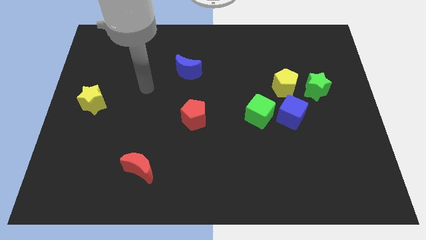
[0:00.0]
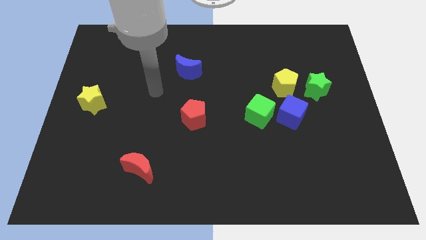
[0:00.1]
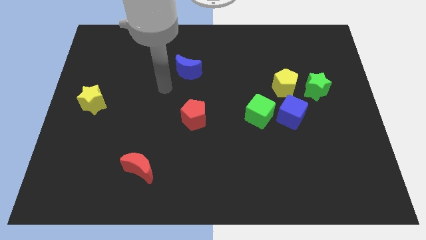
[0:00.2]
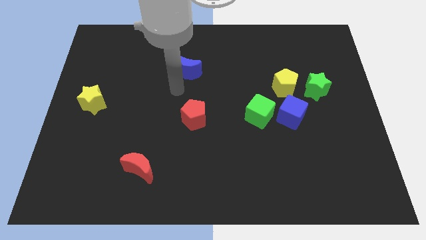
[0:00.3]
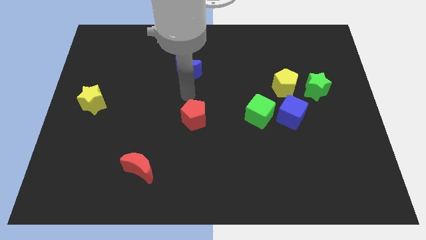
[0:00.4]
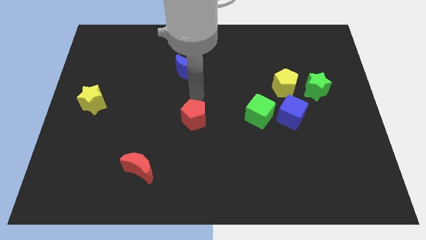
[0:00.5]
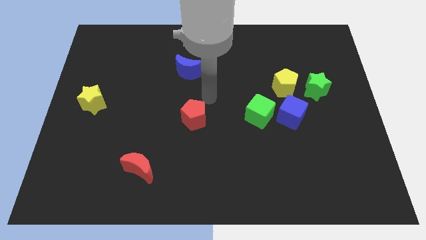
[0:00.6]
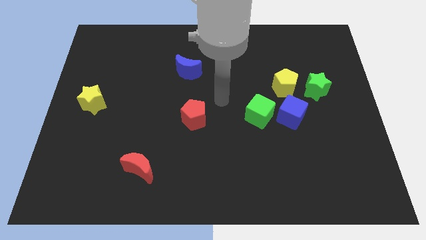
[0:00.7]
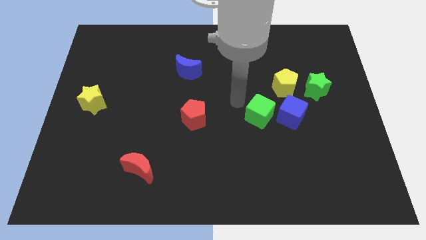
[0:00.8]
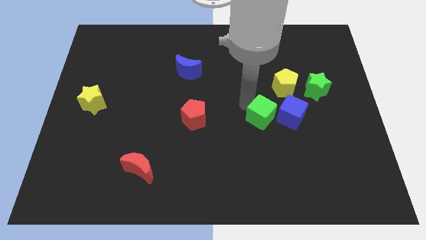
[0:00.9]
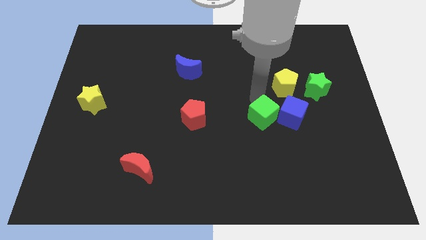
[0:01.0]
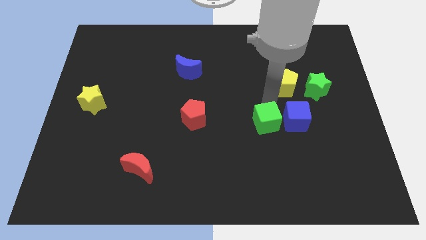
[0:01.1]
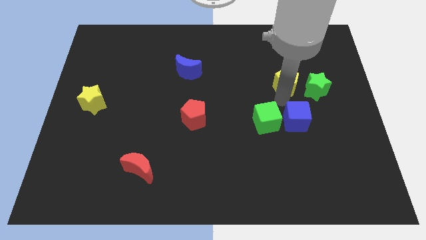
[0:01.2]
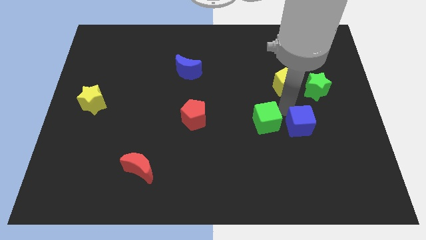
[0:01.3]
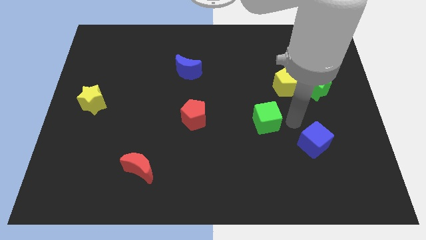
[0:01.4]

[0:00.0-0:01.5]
pull the green cube apart from the blue cube

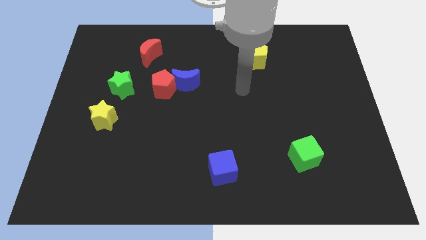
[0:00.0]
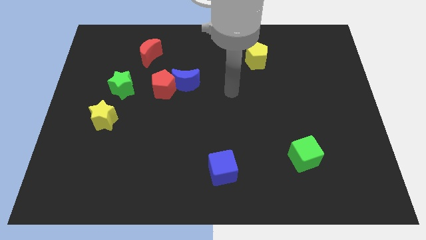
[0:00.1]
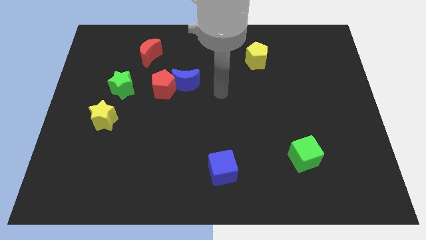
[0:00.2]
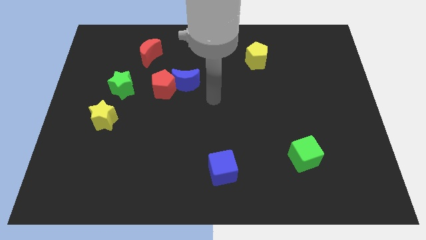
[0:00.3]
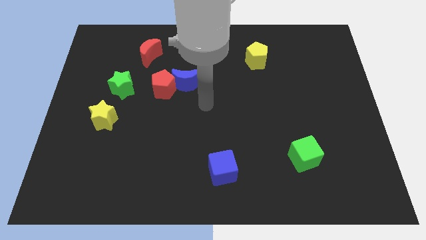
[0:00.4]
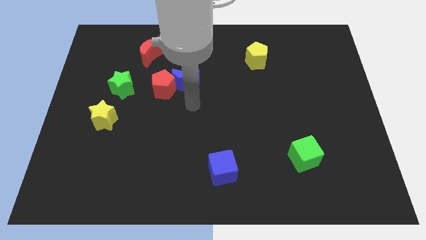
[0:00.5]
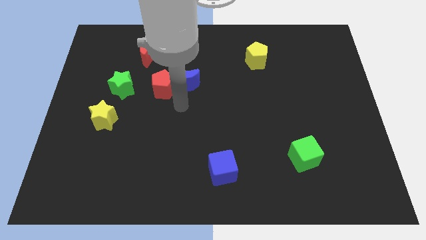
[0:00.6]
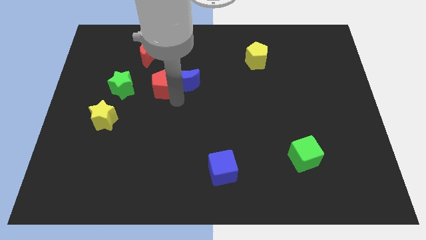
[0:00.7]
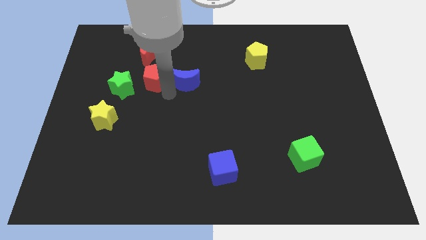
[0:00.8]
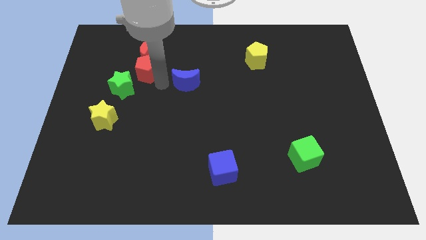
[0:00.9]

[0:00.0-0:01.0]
separate the blue moon from the red pentagon

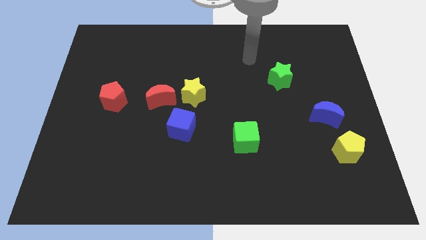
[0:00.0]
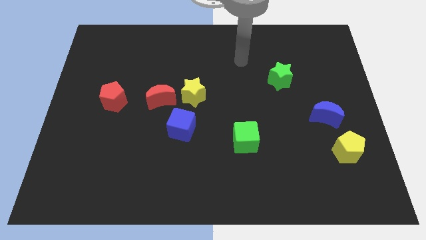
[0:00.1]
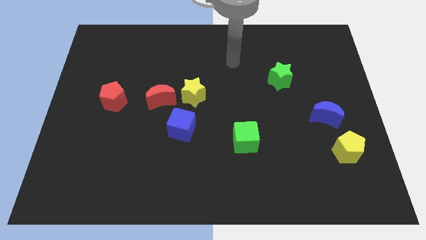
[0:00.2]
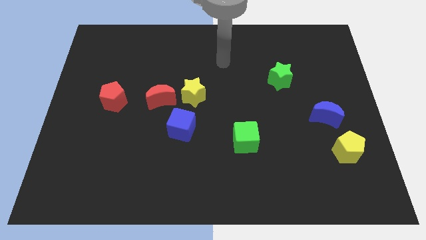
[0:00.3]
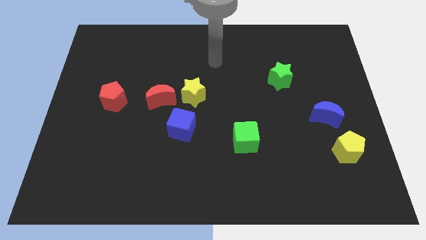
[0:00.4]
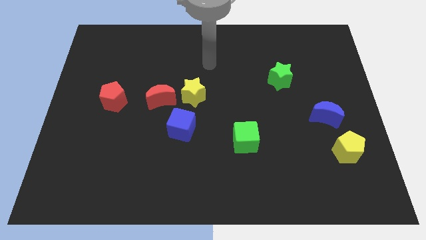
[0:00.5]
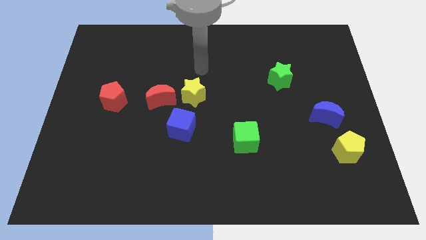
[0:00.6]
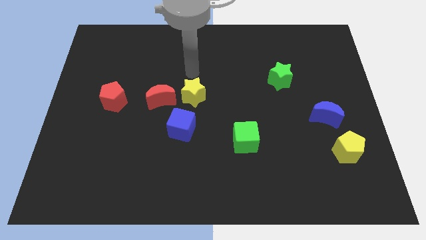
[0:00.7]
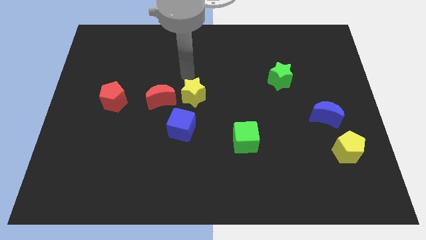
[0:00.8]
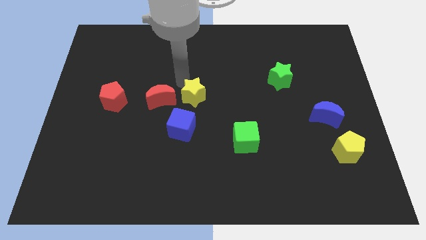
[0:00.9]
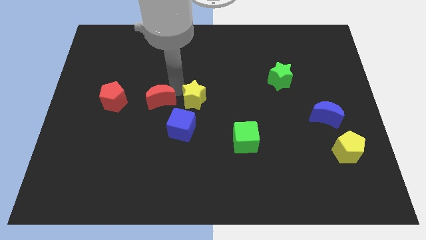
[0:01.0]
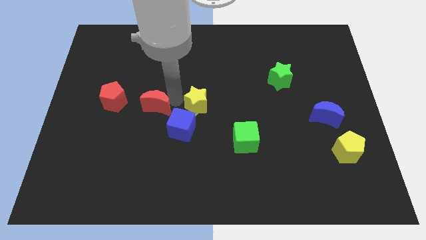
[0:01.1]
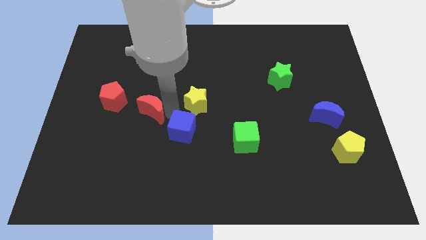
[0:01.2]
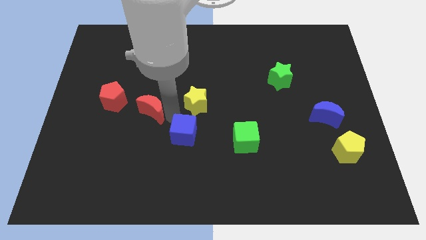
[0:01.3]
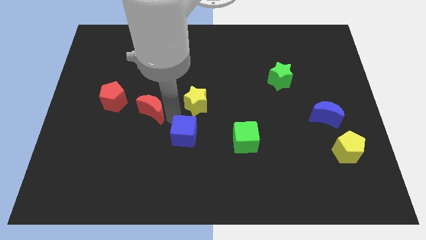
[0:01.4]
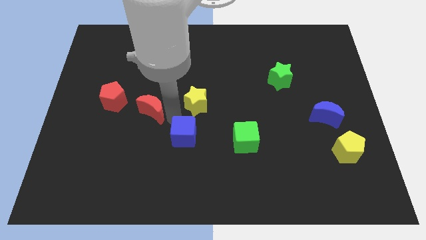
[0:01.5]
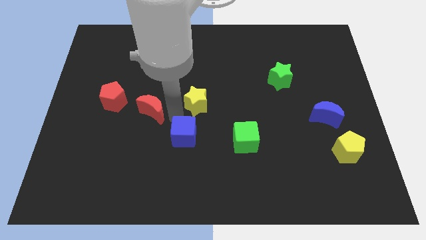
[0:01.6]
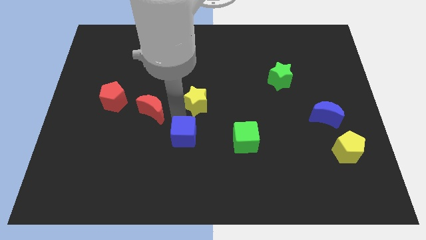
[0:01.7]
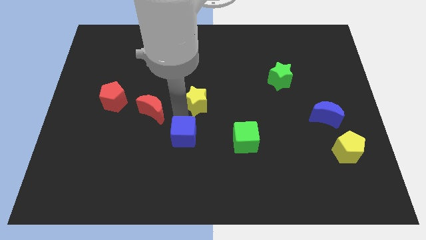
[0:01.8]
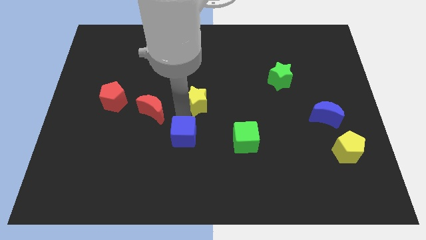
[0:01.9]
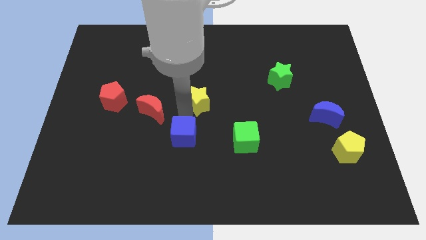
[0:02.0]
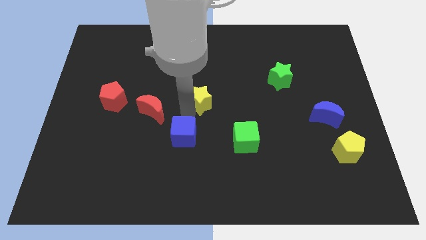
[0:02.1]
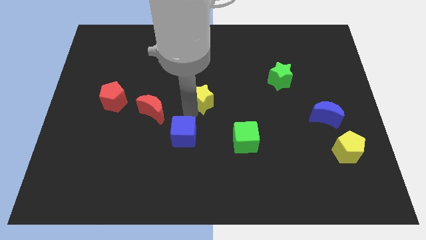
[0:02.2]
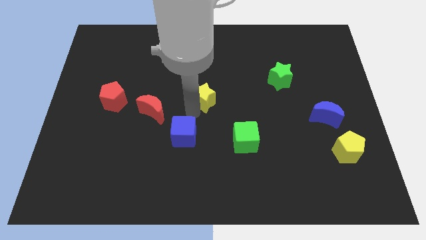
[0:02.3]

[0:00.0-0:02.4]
move the yellow star away from the red moon and blue cube

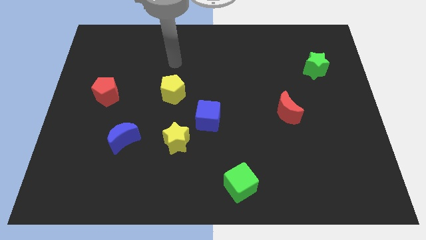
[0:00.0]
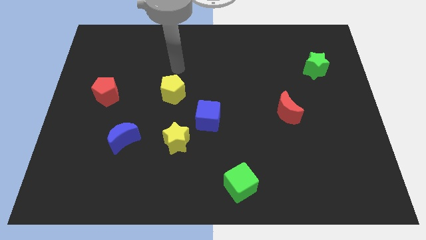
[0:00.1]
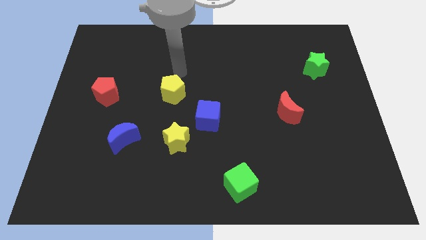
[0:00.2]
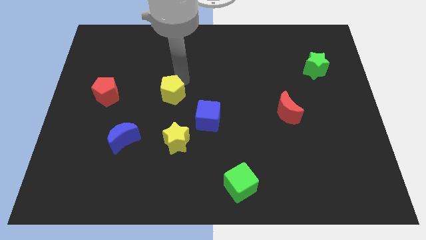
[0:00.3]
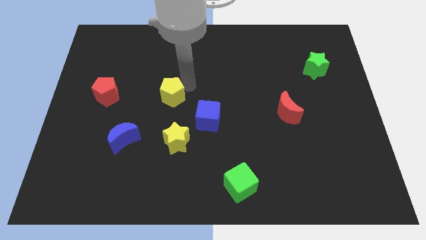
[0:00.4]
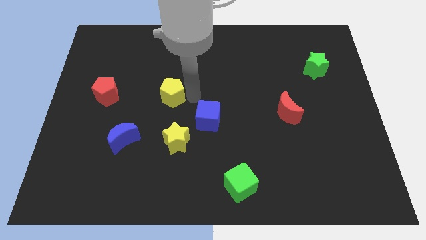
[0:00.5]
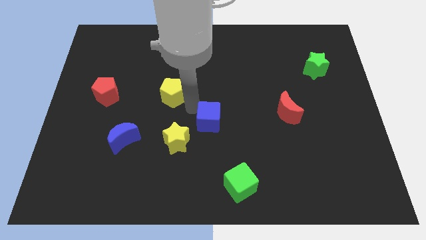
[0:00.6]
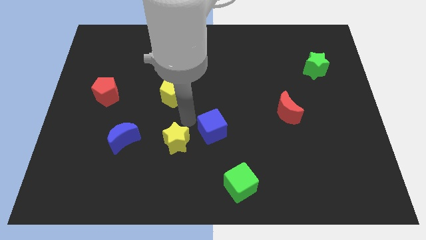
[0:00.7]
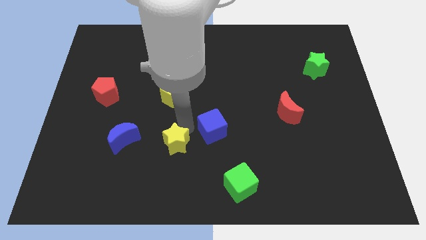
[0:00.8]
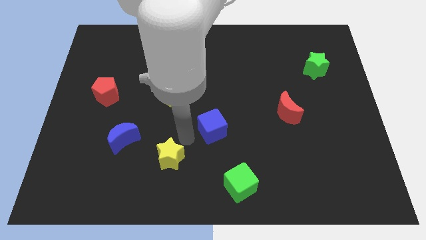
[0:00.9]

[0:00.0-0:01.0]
pull the blue cube apart from the yellow star

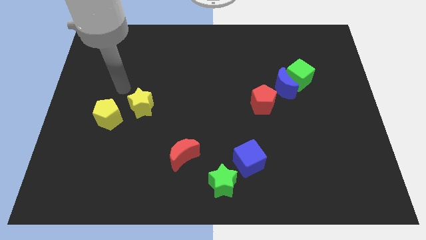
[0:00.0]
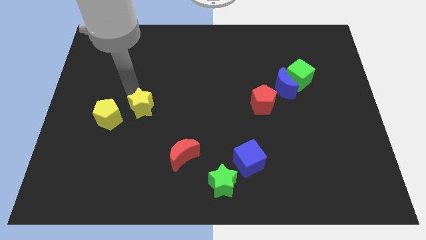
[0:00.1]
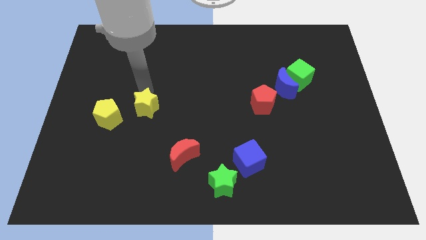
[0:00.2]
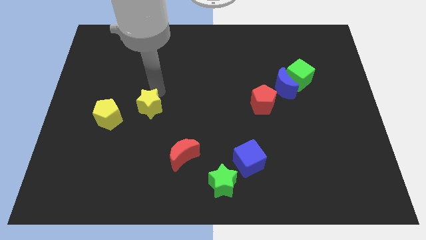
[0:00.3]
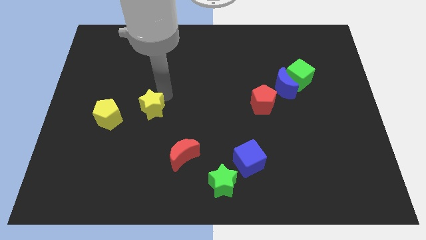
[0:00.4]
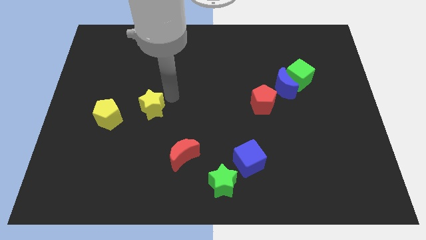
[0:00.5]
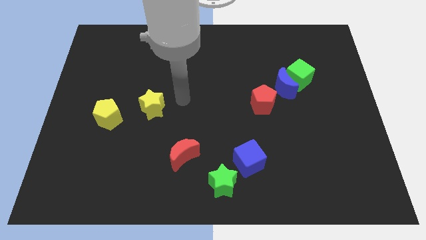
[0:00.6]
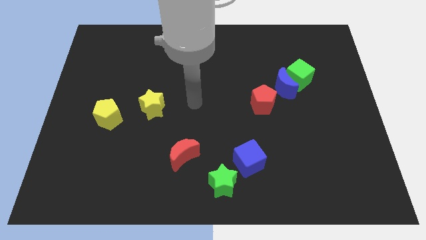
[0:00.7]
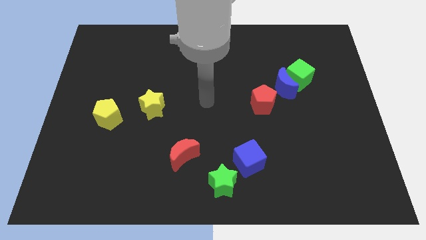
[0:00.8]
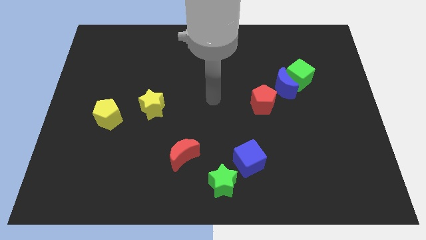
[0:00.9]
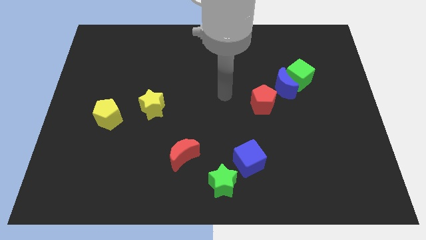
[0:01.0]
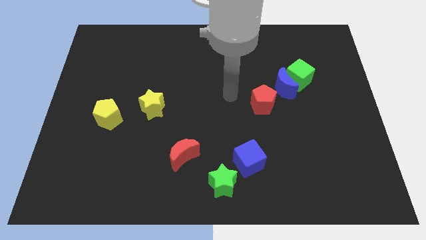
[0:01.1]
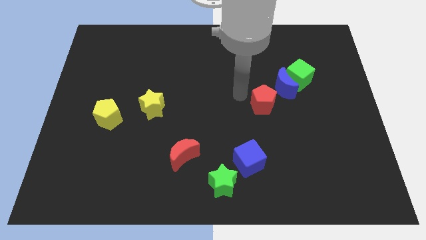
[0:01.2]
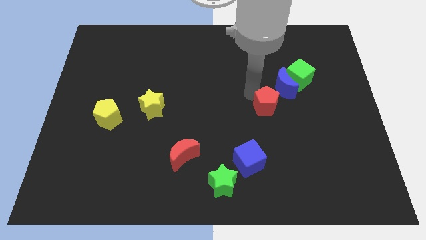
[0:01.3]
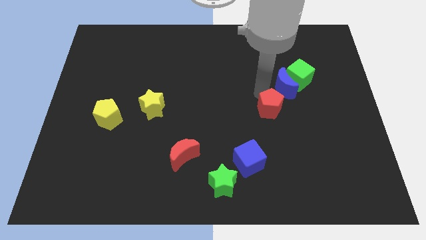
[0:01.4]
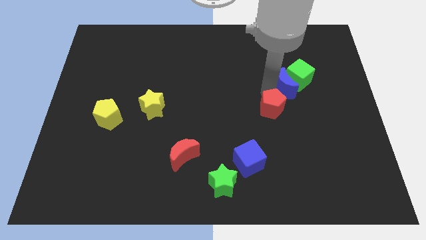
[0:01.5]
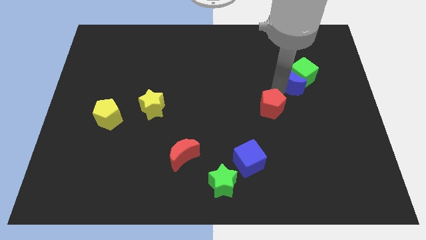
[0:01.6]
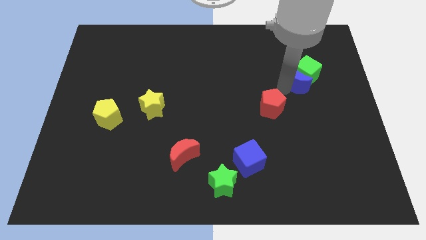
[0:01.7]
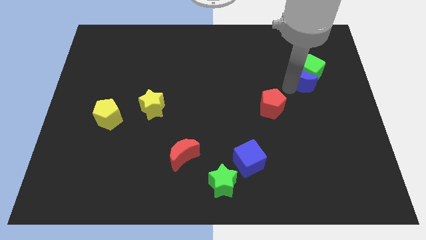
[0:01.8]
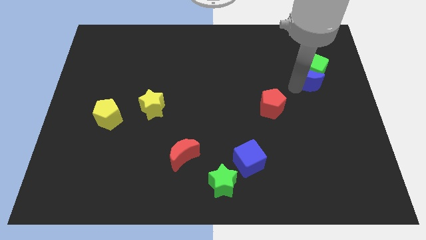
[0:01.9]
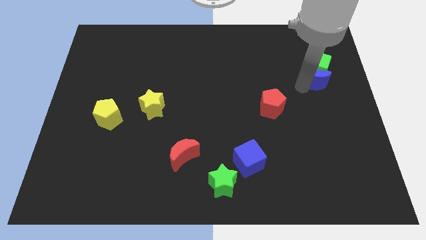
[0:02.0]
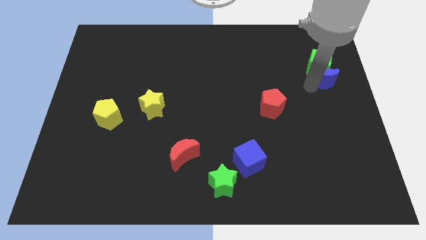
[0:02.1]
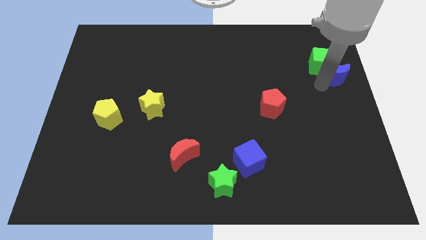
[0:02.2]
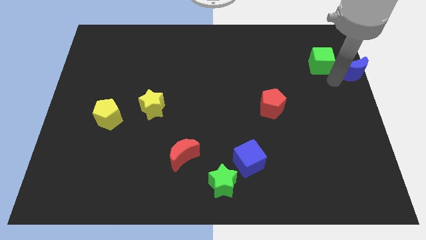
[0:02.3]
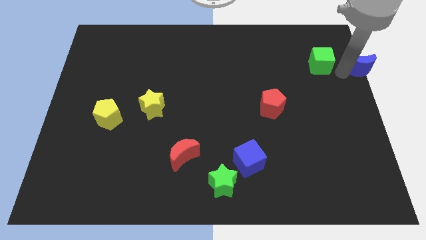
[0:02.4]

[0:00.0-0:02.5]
move the green cube away from the blue moon

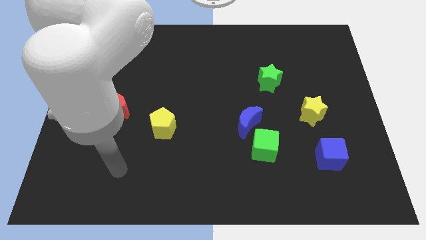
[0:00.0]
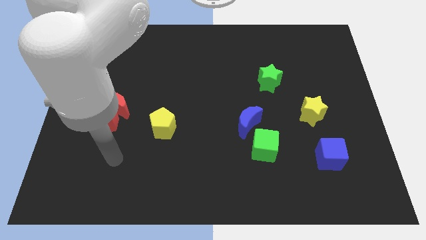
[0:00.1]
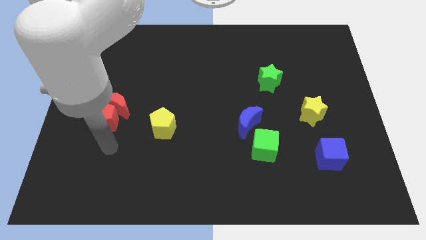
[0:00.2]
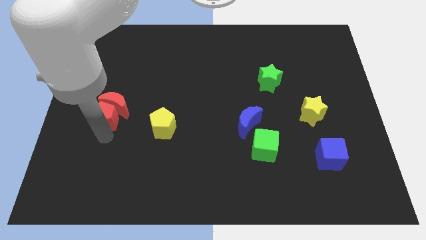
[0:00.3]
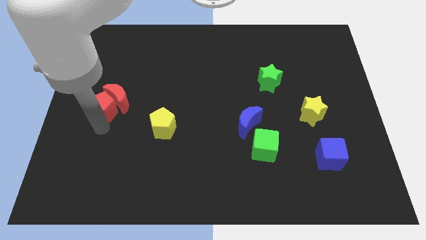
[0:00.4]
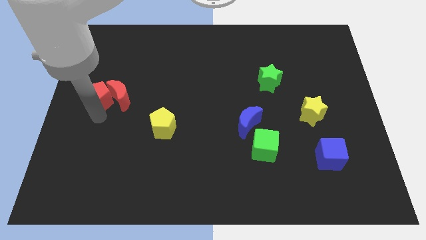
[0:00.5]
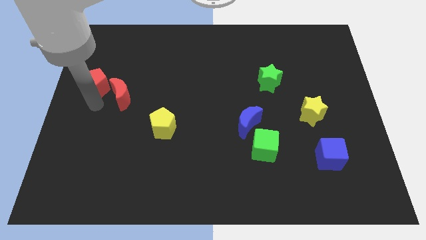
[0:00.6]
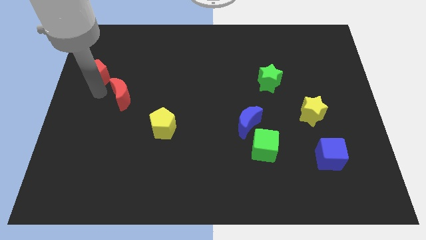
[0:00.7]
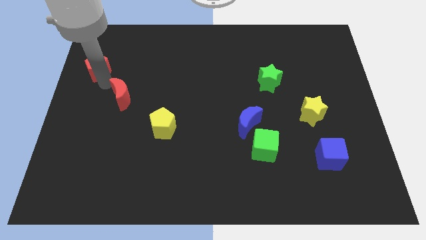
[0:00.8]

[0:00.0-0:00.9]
pull the red moon apart from the red pentagon
